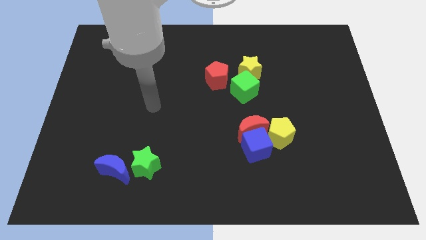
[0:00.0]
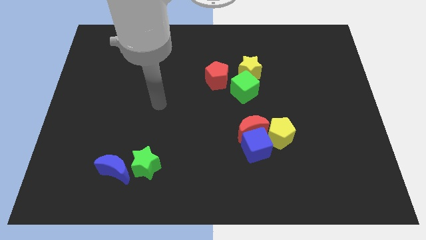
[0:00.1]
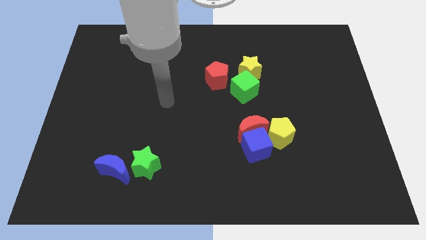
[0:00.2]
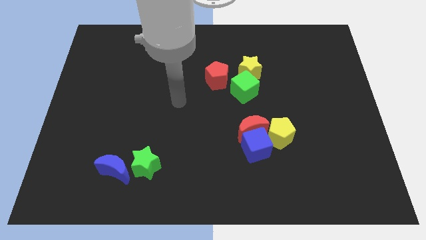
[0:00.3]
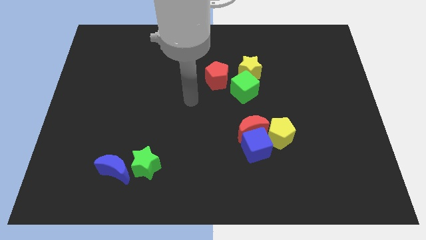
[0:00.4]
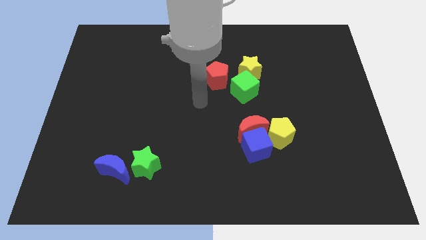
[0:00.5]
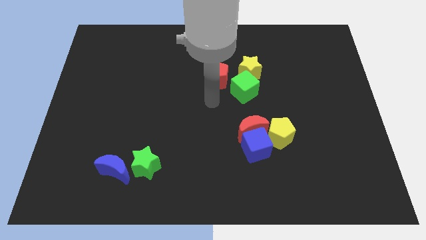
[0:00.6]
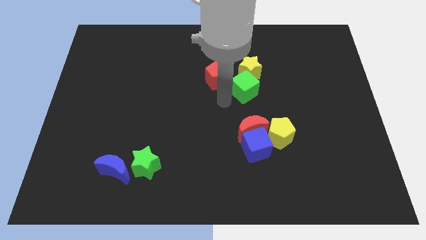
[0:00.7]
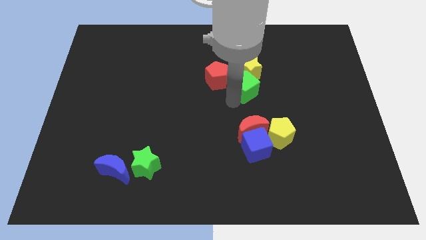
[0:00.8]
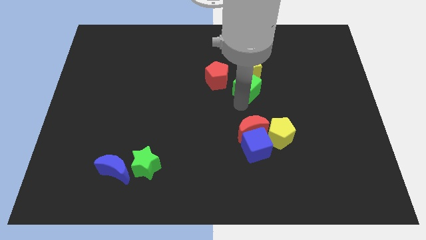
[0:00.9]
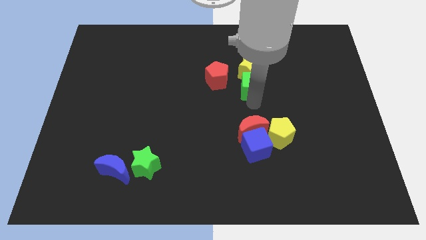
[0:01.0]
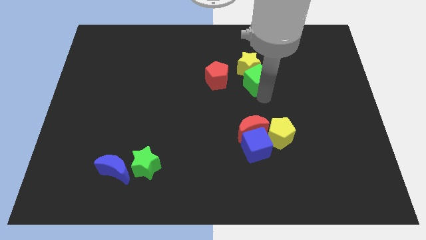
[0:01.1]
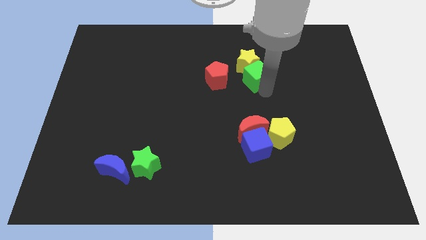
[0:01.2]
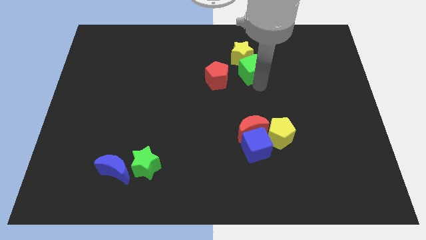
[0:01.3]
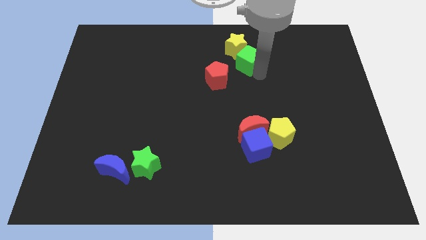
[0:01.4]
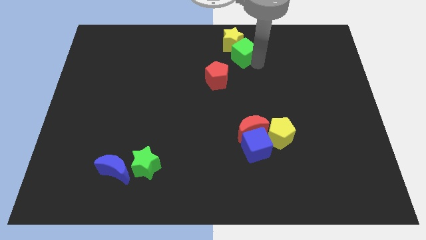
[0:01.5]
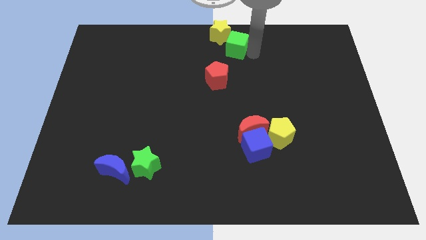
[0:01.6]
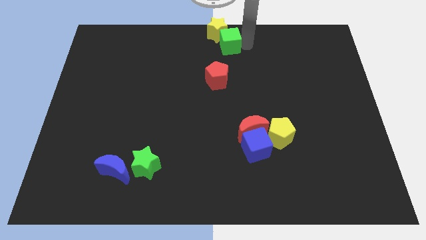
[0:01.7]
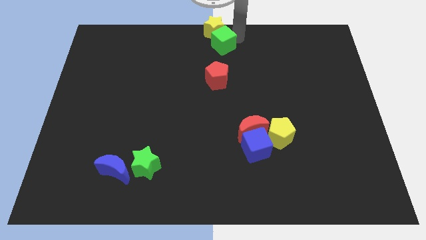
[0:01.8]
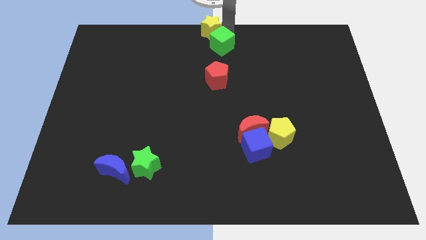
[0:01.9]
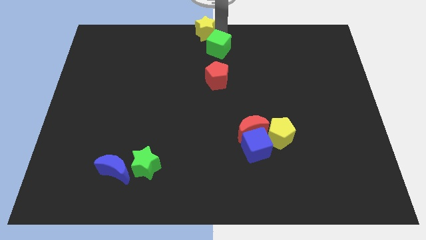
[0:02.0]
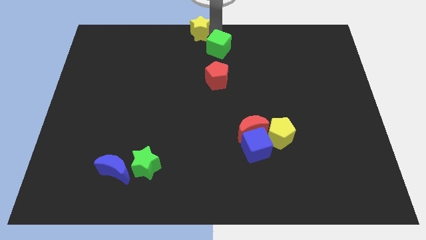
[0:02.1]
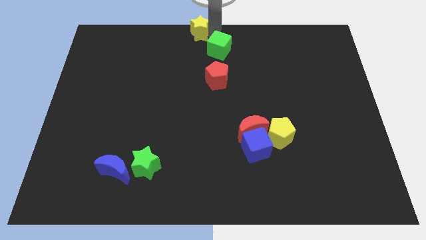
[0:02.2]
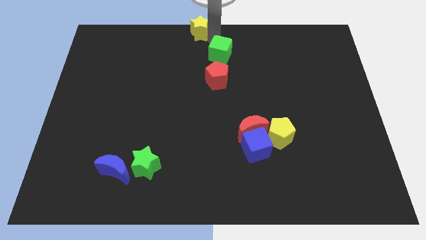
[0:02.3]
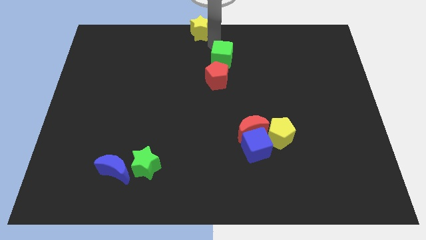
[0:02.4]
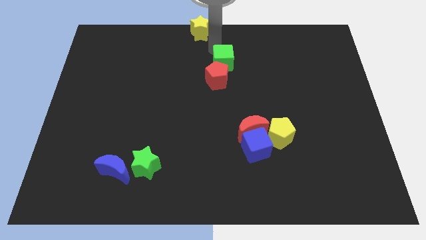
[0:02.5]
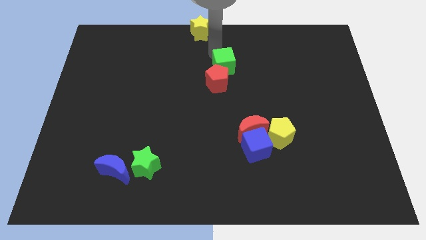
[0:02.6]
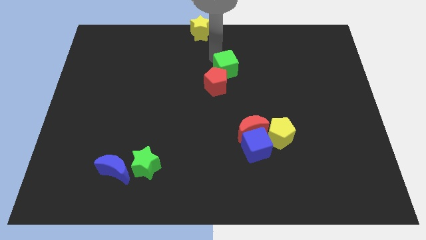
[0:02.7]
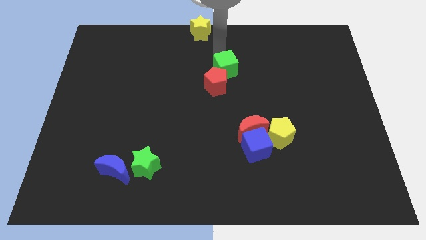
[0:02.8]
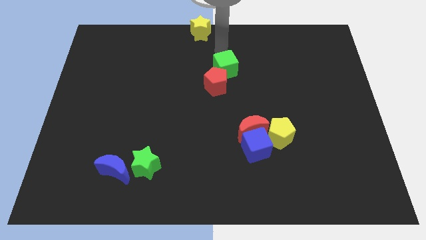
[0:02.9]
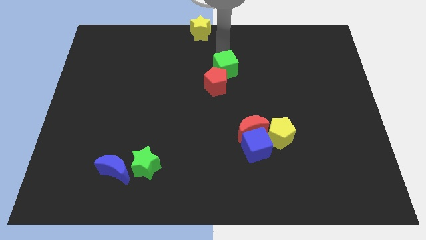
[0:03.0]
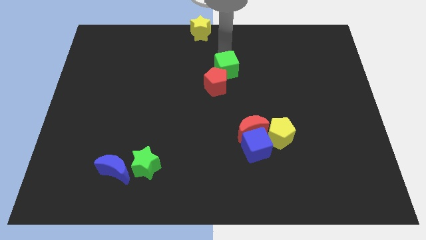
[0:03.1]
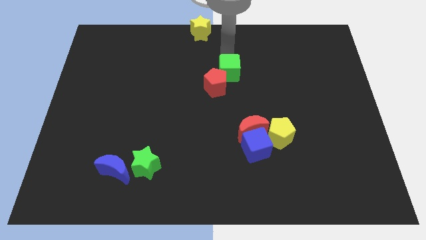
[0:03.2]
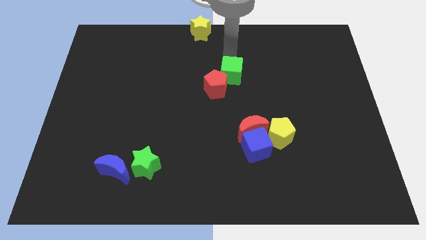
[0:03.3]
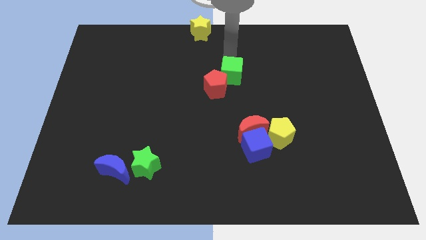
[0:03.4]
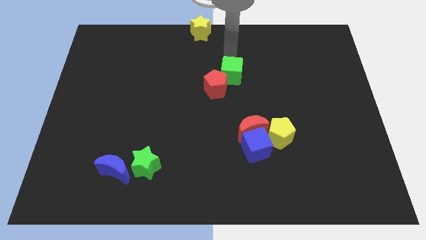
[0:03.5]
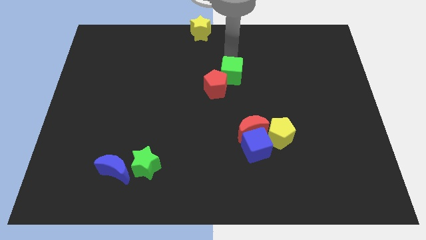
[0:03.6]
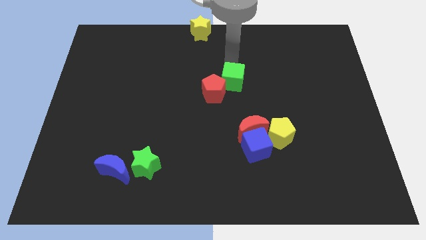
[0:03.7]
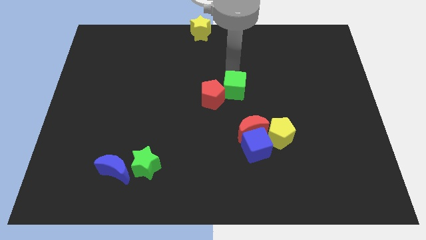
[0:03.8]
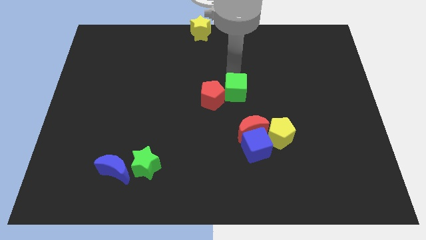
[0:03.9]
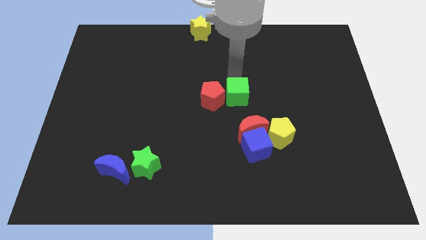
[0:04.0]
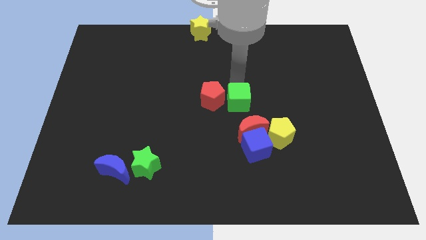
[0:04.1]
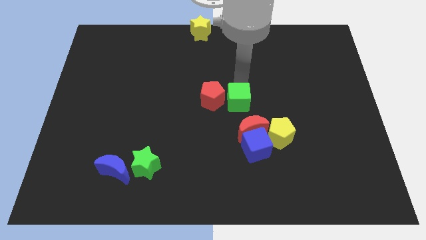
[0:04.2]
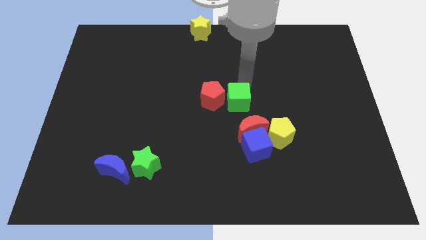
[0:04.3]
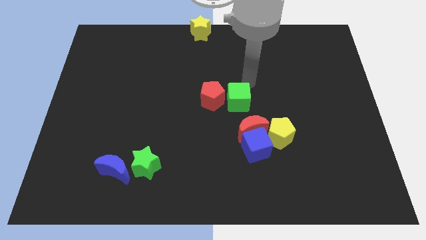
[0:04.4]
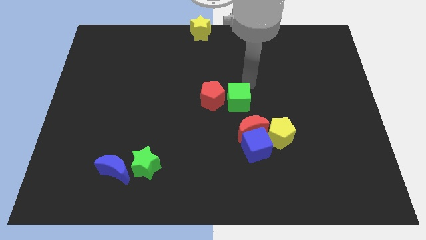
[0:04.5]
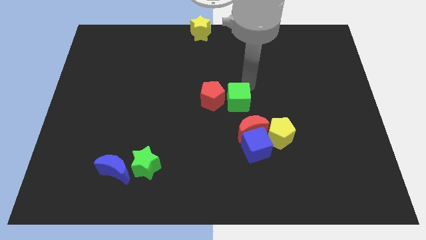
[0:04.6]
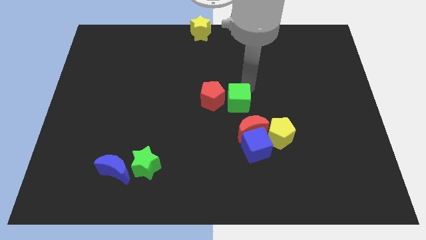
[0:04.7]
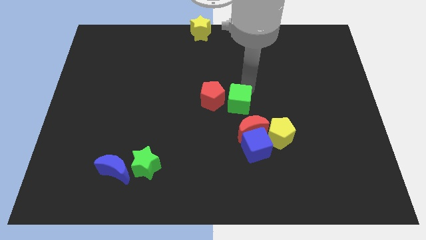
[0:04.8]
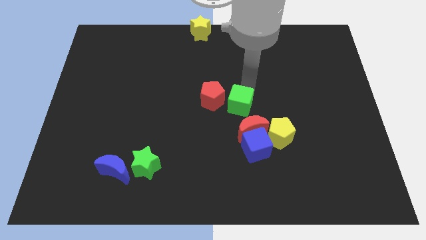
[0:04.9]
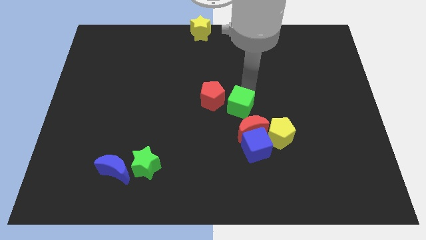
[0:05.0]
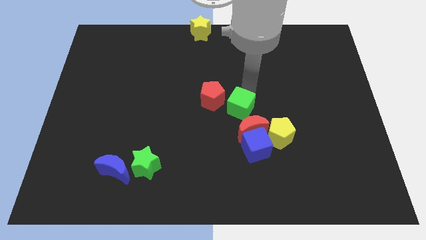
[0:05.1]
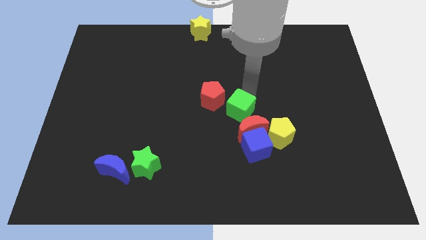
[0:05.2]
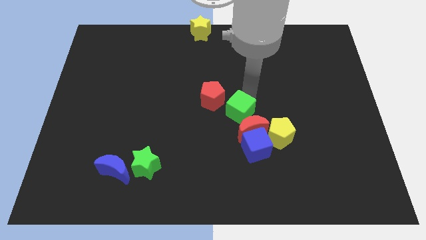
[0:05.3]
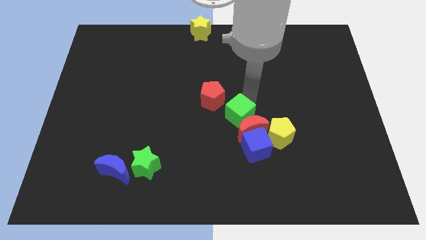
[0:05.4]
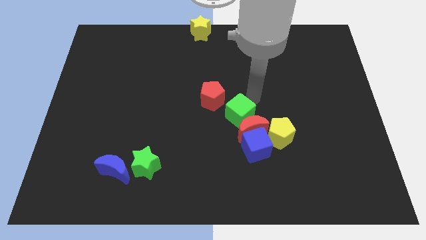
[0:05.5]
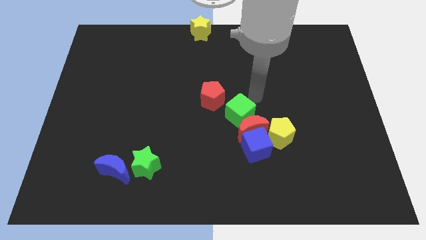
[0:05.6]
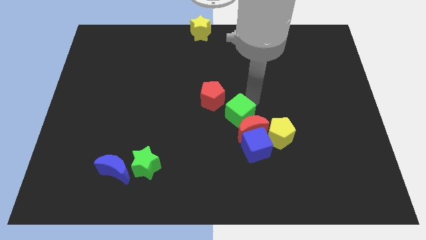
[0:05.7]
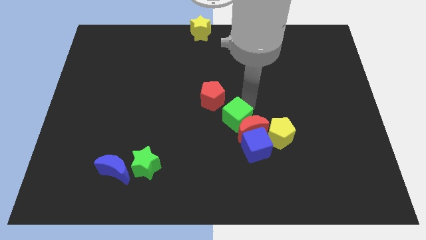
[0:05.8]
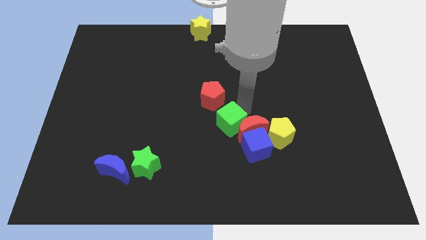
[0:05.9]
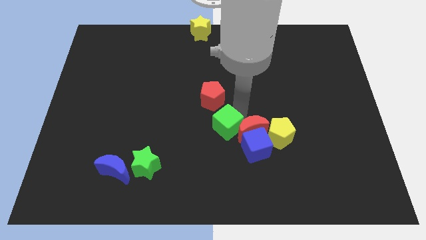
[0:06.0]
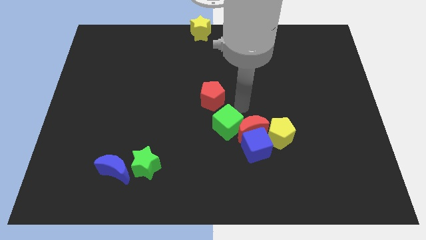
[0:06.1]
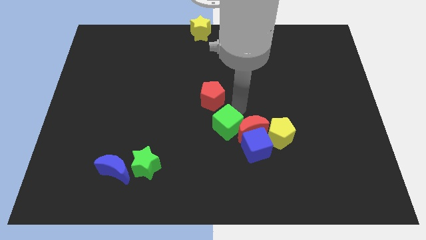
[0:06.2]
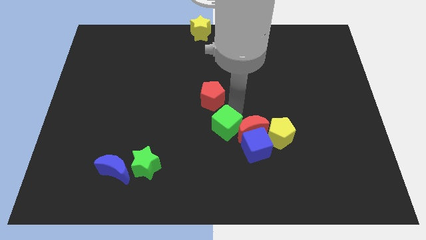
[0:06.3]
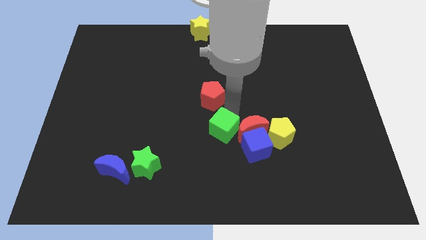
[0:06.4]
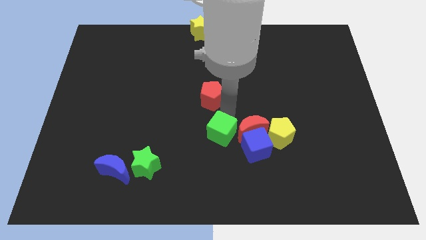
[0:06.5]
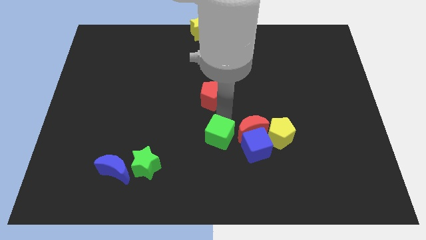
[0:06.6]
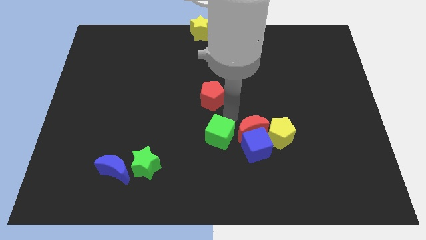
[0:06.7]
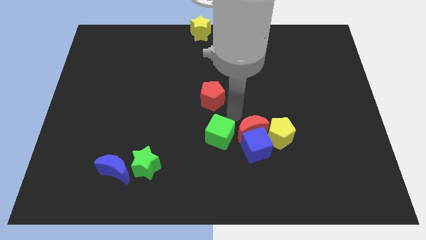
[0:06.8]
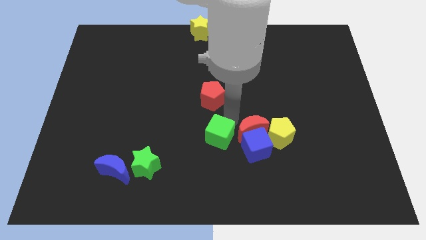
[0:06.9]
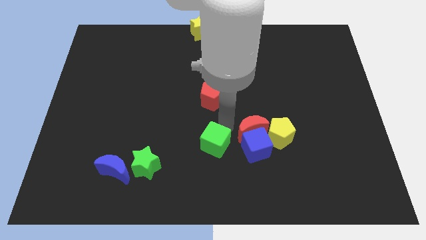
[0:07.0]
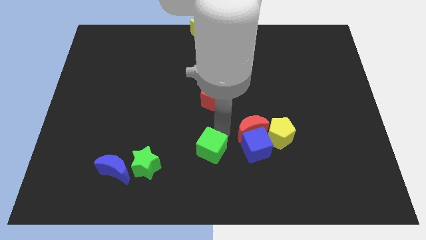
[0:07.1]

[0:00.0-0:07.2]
move the green cube just right of the green star
